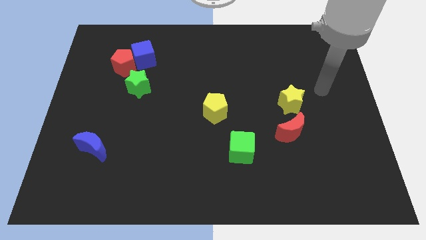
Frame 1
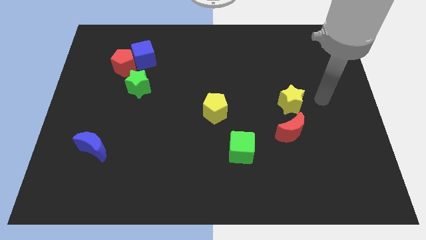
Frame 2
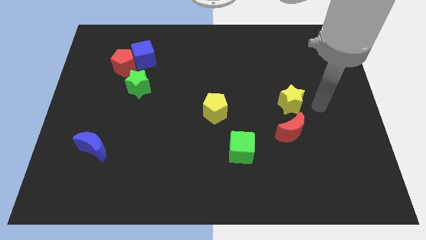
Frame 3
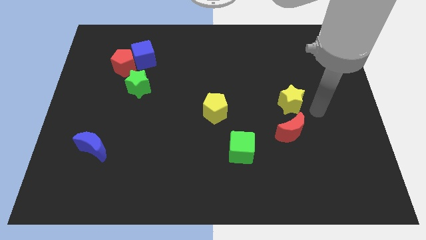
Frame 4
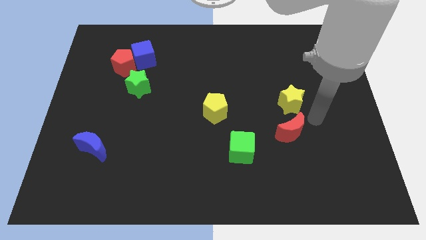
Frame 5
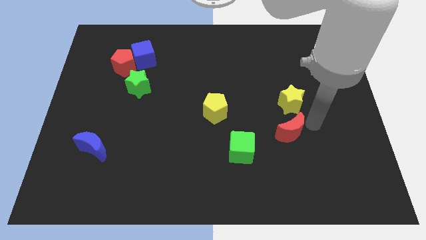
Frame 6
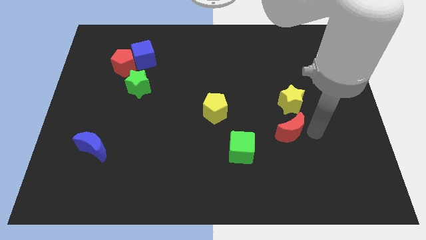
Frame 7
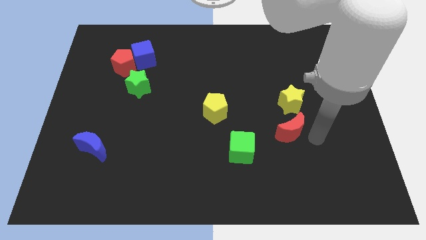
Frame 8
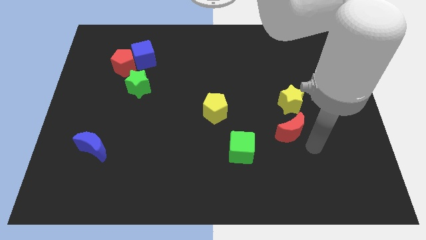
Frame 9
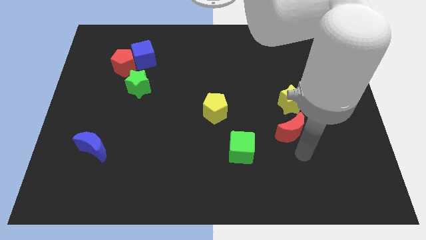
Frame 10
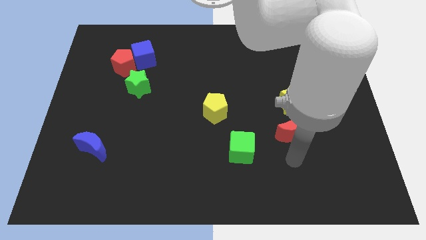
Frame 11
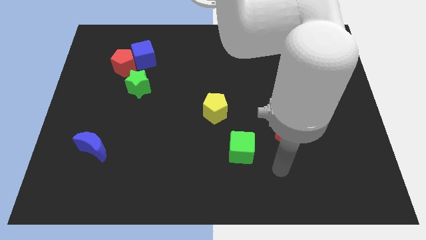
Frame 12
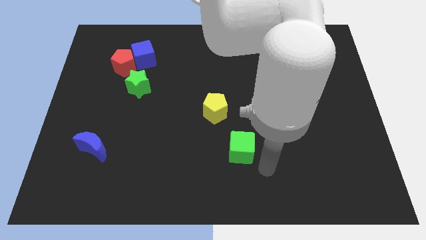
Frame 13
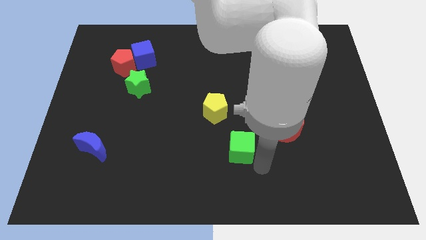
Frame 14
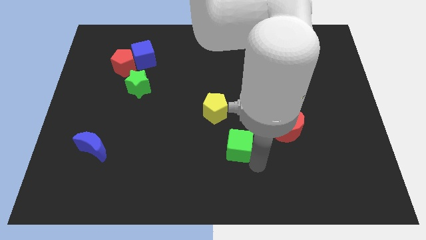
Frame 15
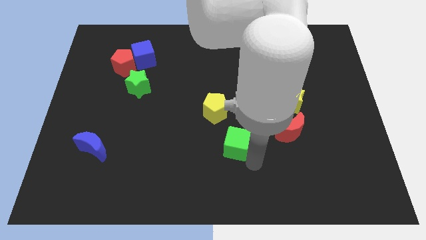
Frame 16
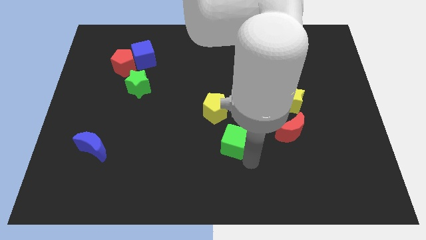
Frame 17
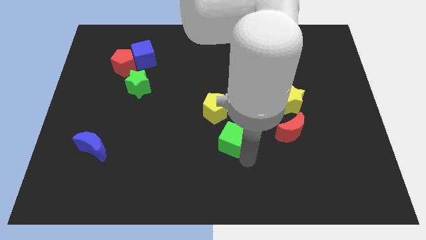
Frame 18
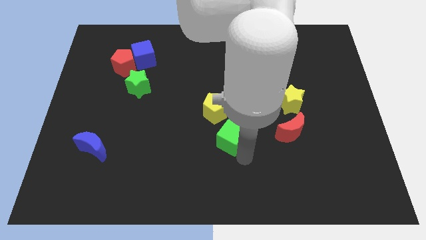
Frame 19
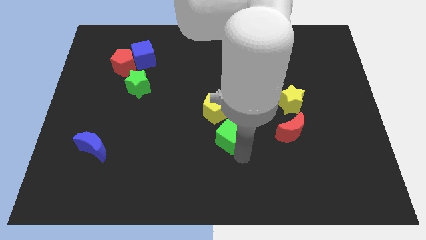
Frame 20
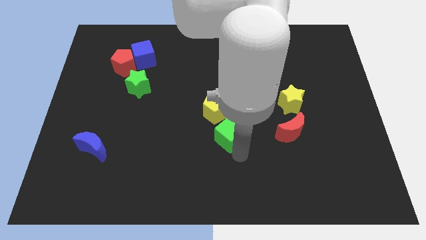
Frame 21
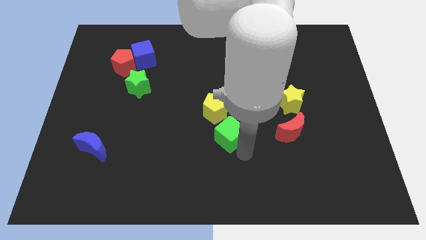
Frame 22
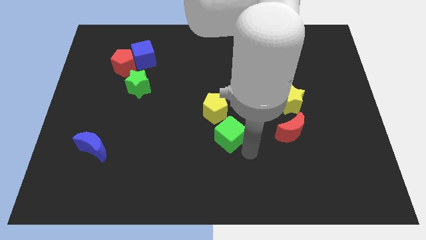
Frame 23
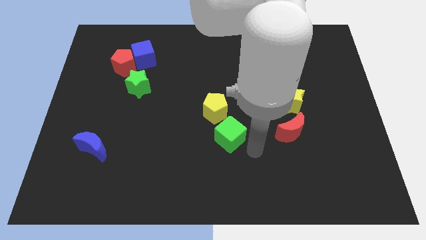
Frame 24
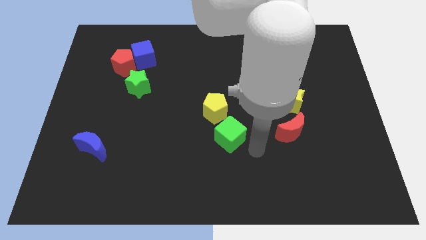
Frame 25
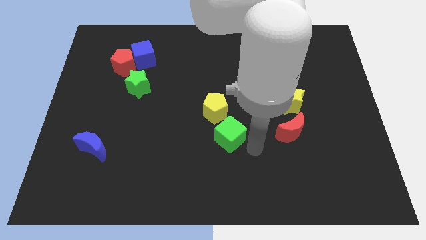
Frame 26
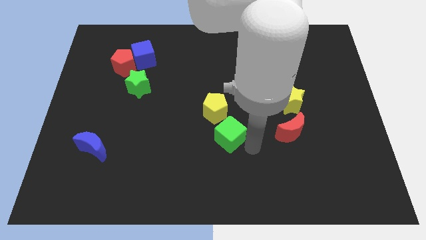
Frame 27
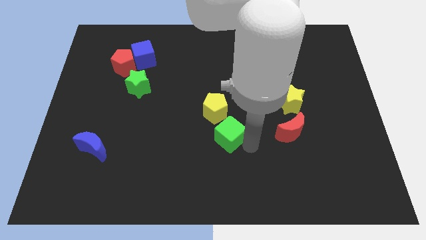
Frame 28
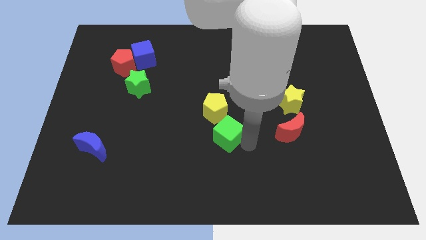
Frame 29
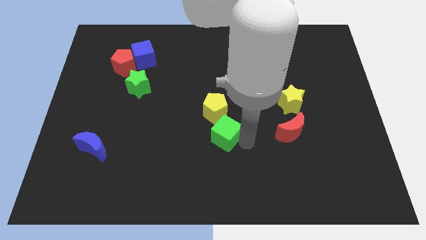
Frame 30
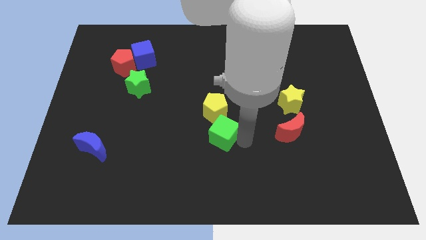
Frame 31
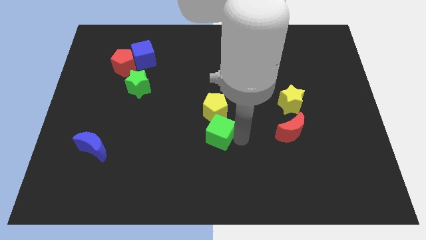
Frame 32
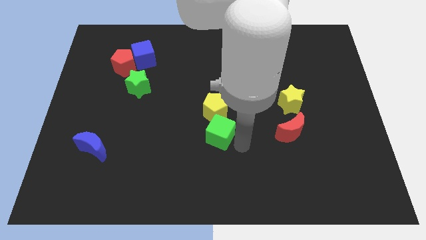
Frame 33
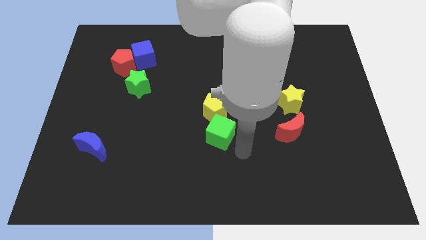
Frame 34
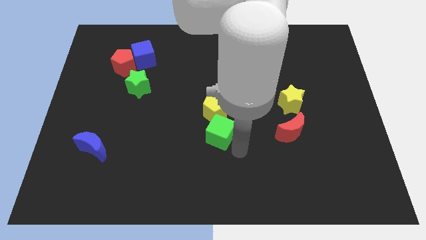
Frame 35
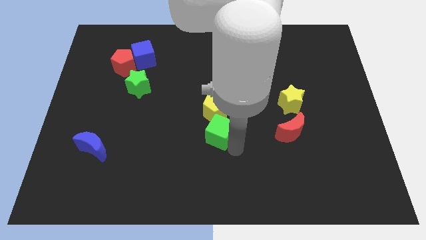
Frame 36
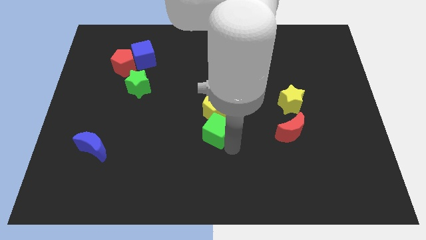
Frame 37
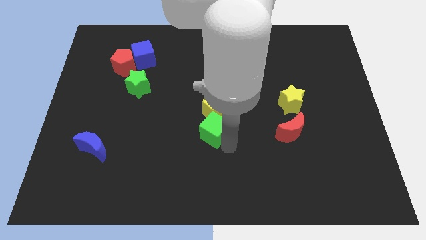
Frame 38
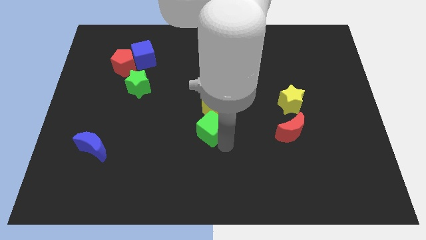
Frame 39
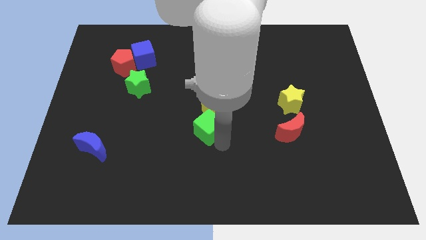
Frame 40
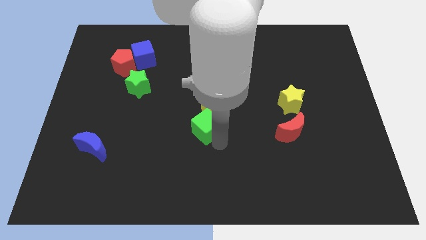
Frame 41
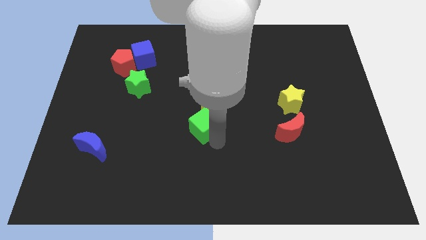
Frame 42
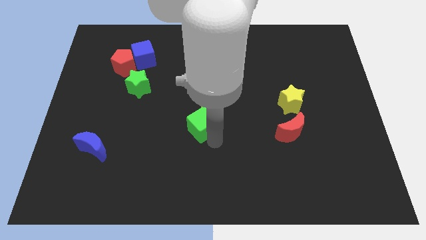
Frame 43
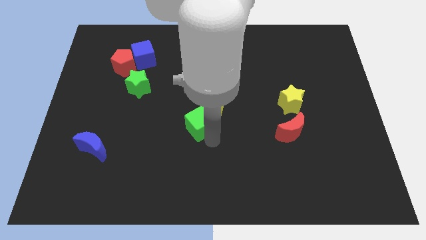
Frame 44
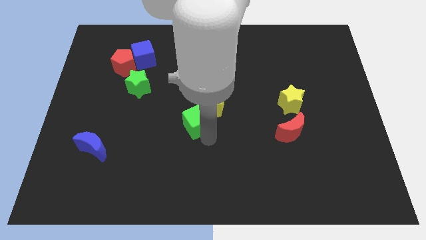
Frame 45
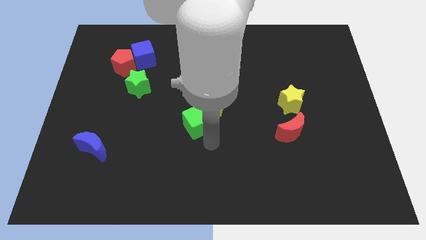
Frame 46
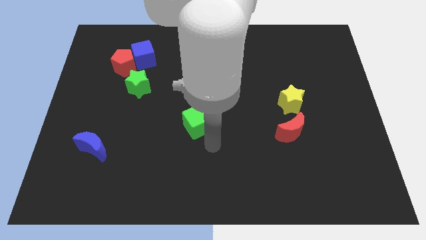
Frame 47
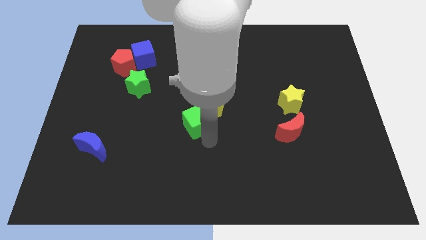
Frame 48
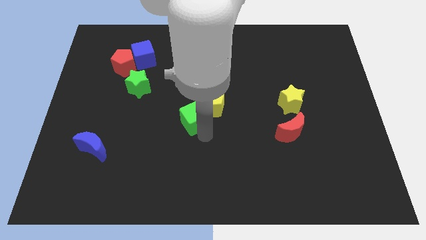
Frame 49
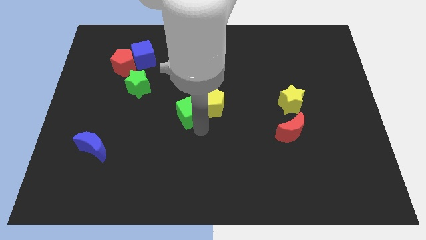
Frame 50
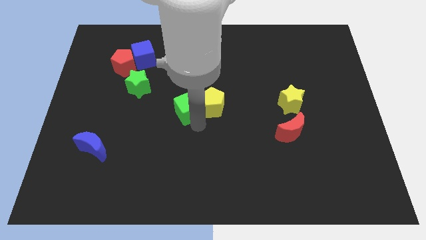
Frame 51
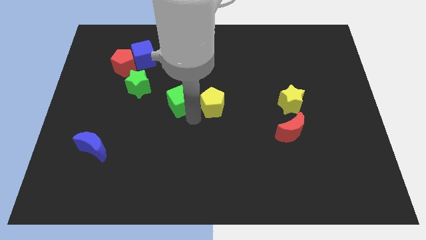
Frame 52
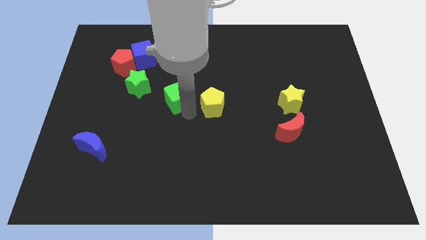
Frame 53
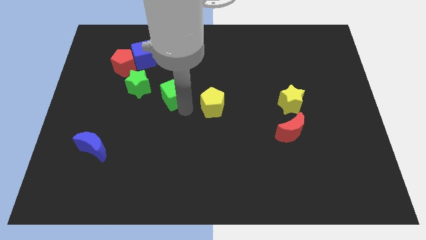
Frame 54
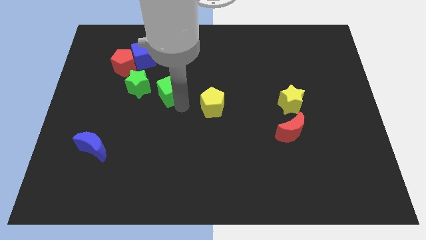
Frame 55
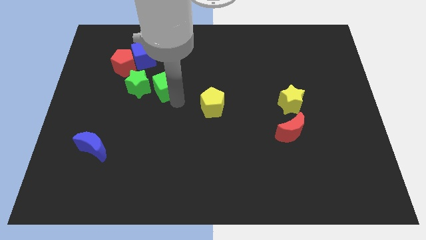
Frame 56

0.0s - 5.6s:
move the green cube to the bottom right of the blue cube

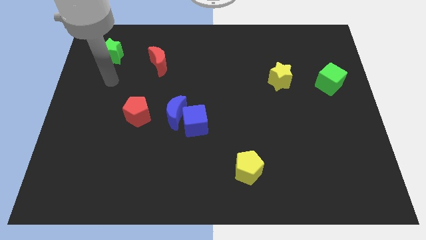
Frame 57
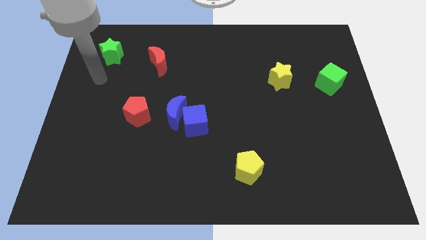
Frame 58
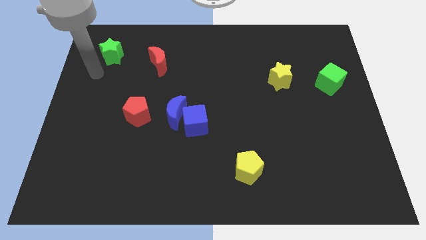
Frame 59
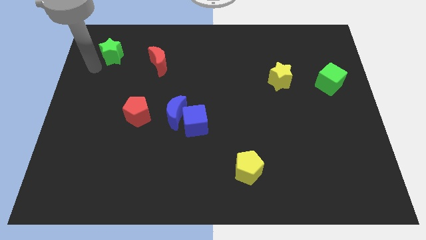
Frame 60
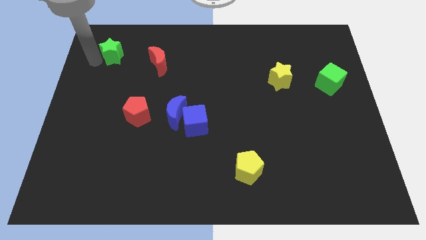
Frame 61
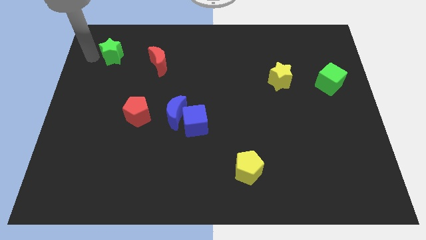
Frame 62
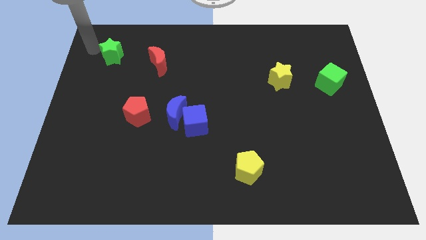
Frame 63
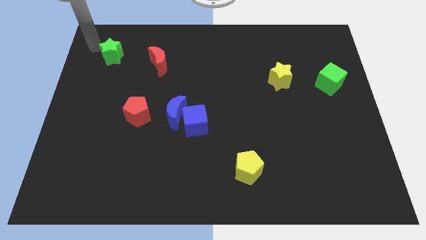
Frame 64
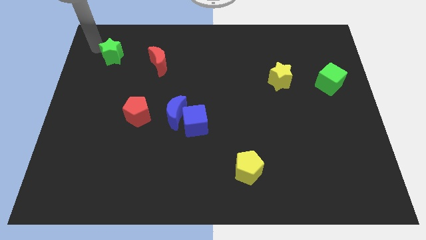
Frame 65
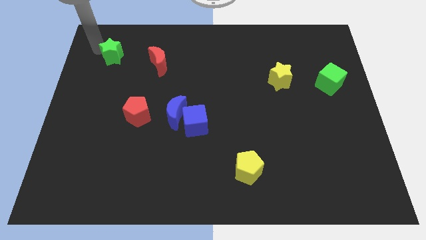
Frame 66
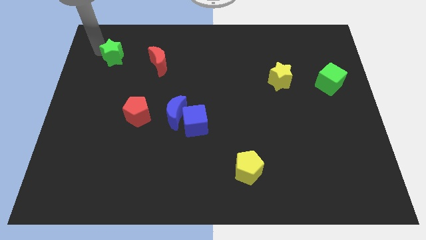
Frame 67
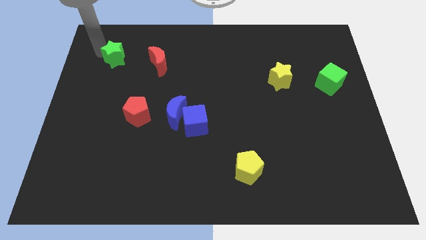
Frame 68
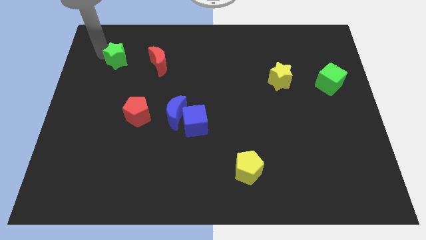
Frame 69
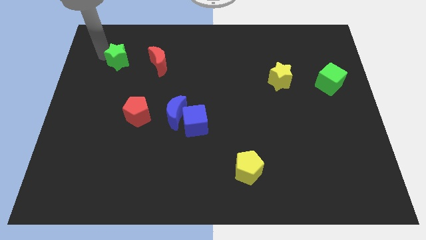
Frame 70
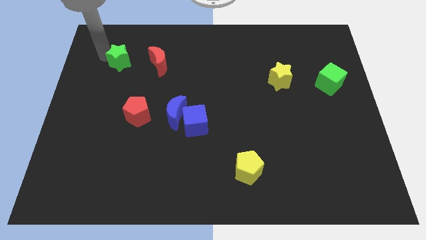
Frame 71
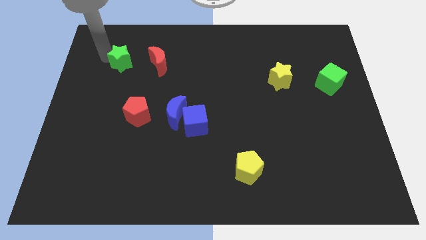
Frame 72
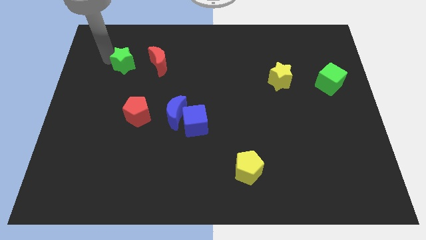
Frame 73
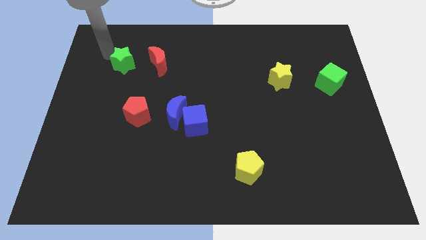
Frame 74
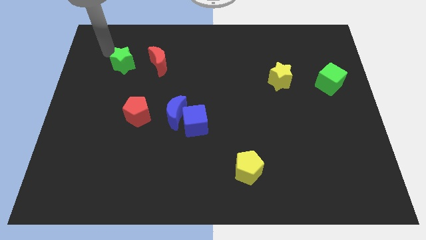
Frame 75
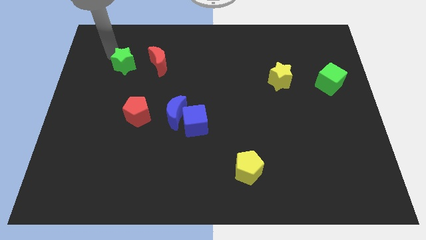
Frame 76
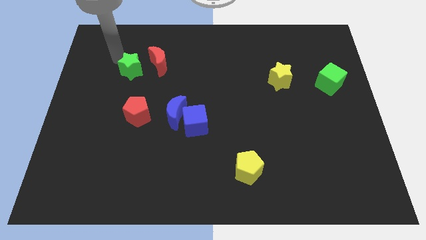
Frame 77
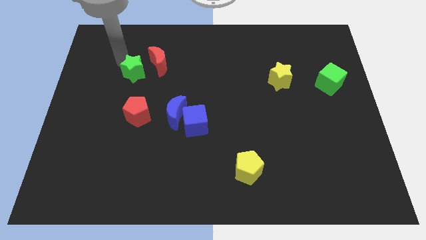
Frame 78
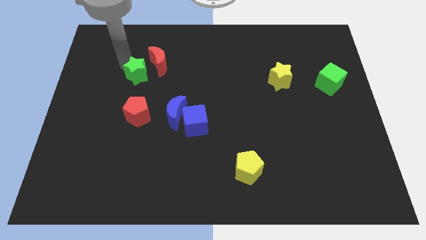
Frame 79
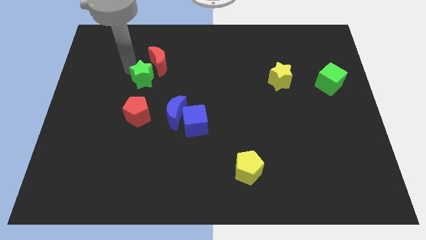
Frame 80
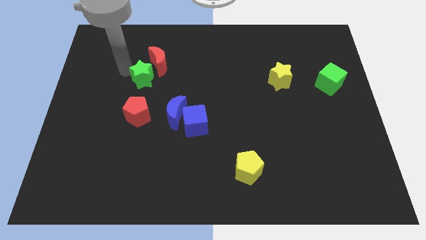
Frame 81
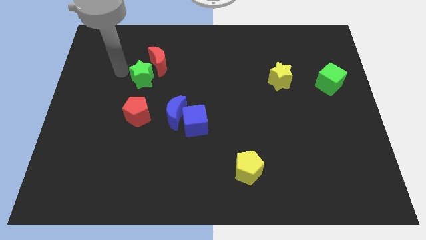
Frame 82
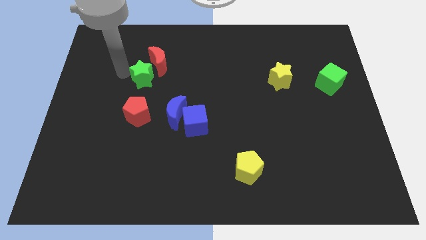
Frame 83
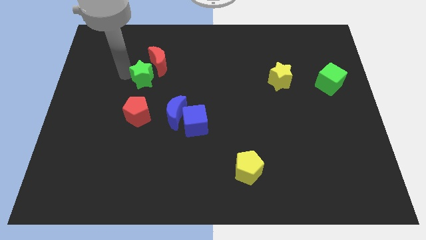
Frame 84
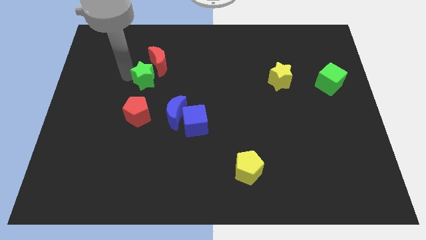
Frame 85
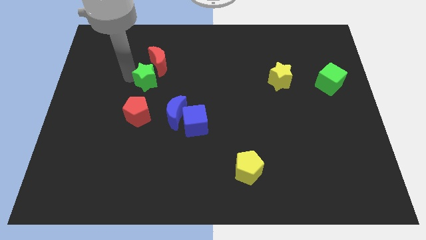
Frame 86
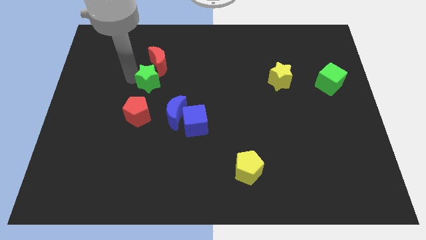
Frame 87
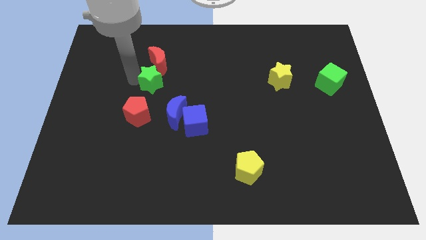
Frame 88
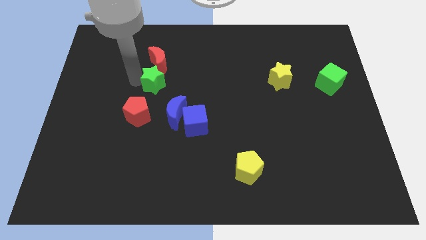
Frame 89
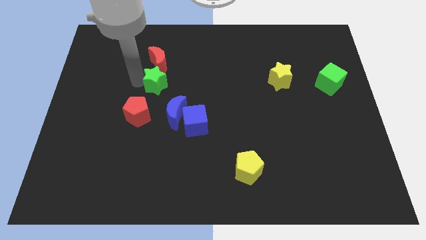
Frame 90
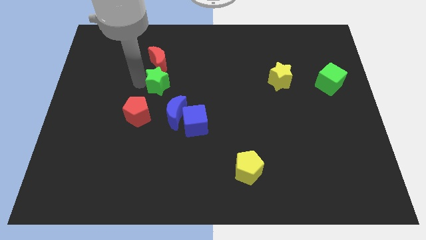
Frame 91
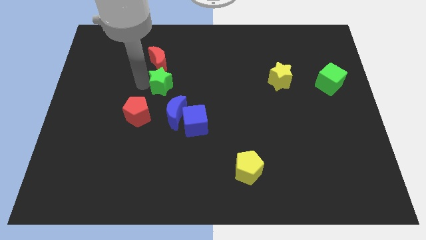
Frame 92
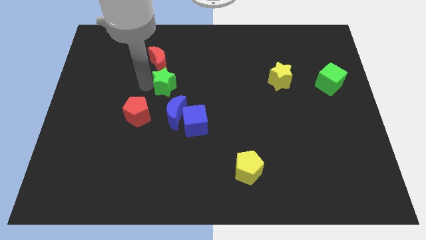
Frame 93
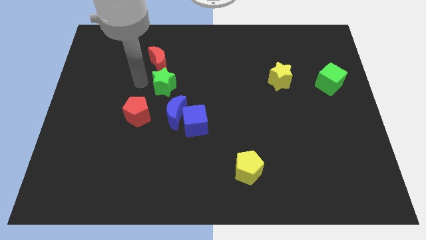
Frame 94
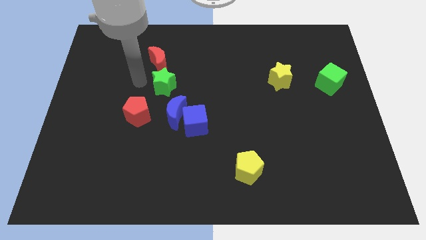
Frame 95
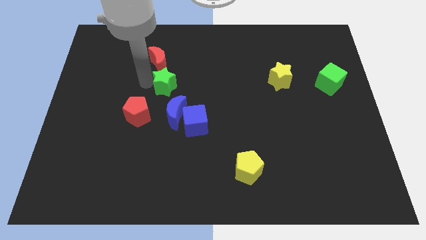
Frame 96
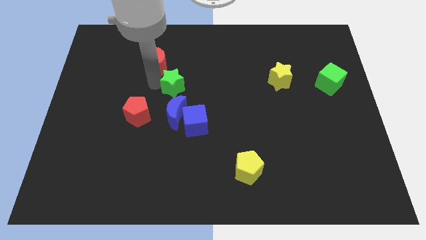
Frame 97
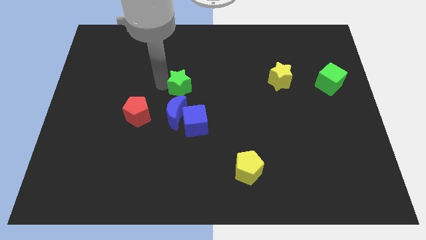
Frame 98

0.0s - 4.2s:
slide the green star to the top of the blue cube
